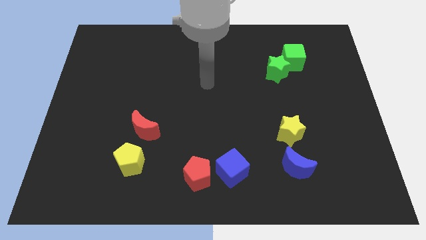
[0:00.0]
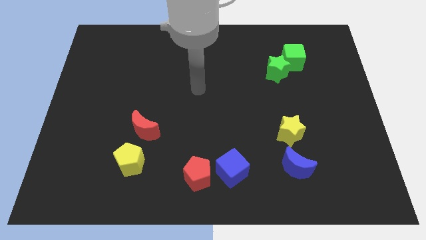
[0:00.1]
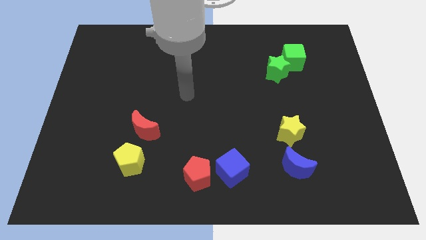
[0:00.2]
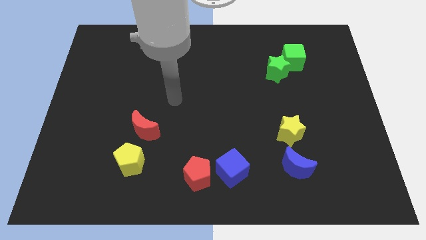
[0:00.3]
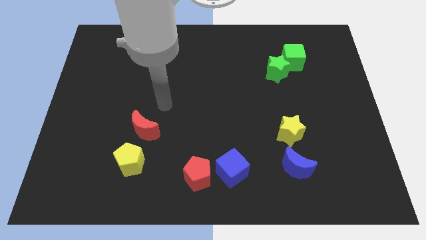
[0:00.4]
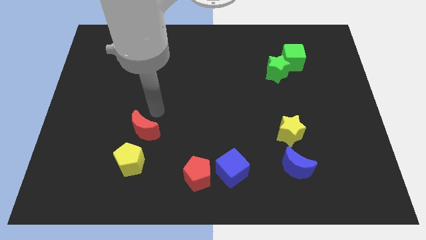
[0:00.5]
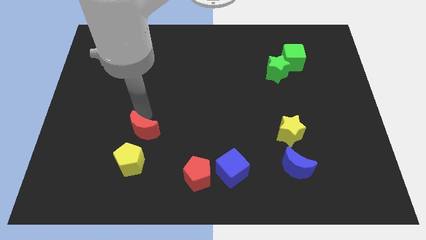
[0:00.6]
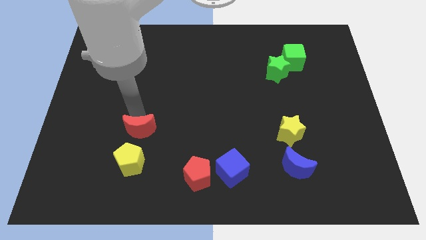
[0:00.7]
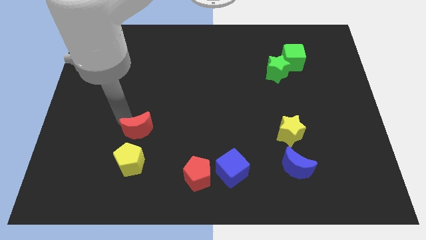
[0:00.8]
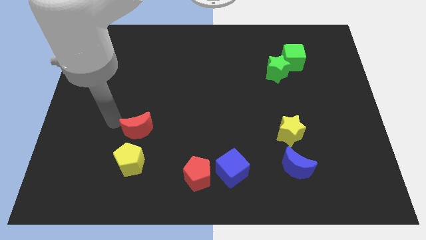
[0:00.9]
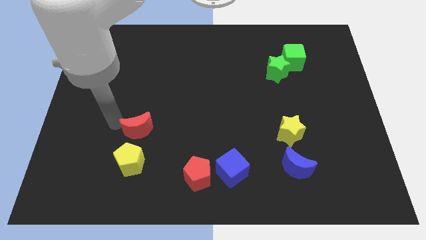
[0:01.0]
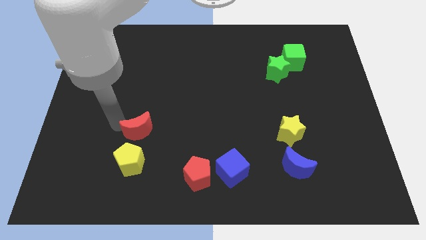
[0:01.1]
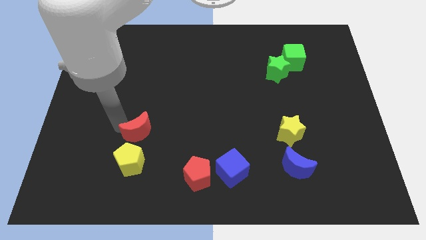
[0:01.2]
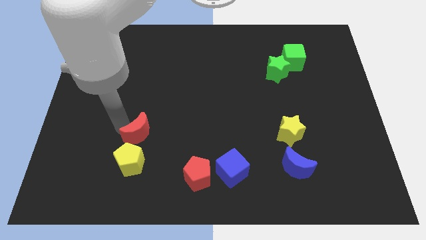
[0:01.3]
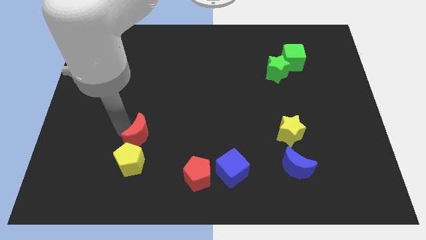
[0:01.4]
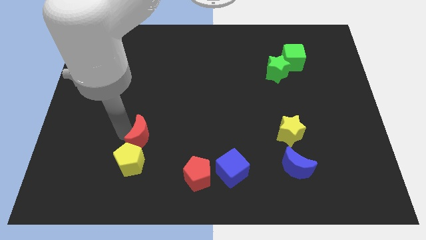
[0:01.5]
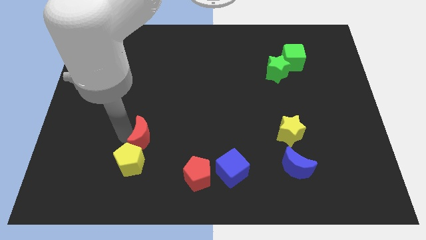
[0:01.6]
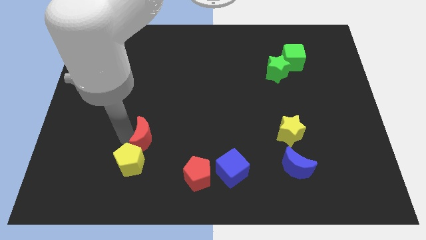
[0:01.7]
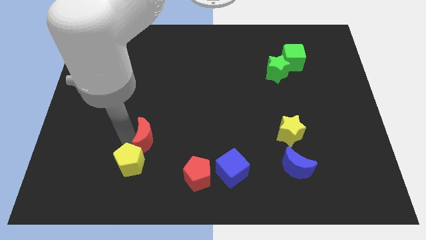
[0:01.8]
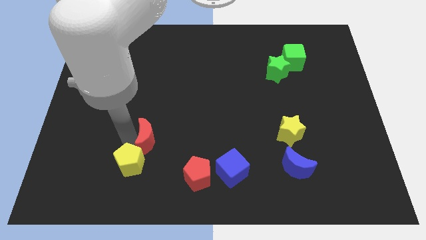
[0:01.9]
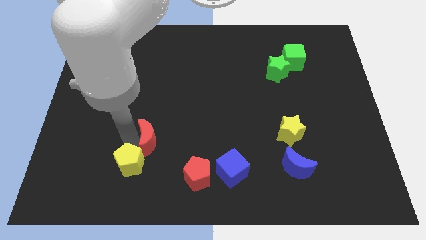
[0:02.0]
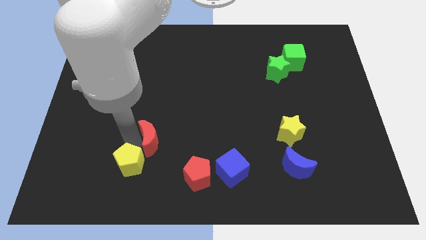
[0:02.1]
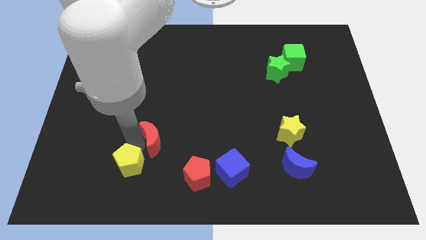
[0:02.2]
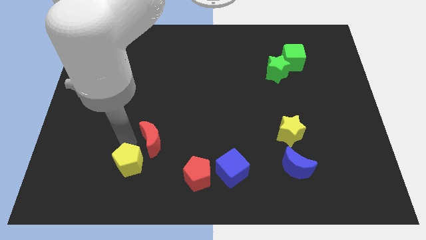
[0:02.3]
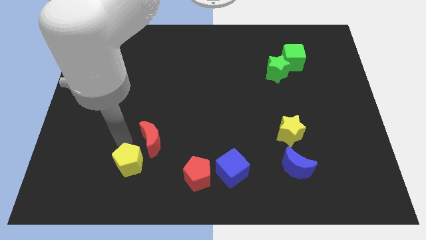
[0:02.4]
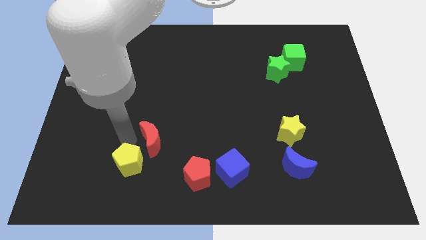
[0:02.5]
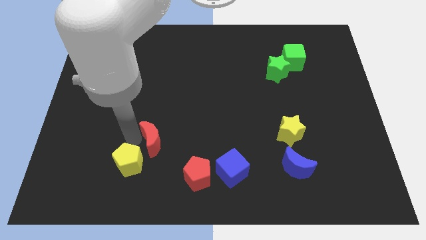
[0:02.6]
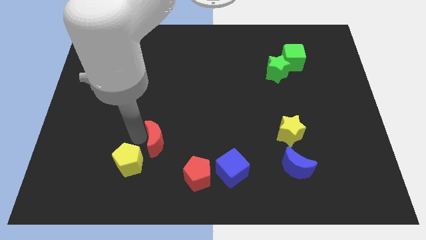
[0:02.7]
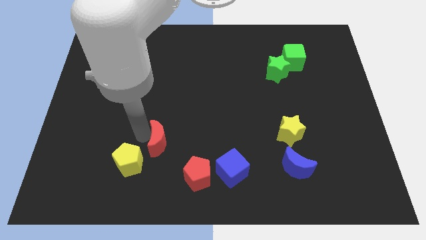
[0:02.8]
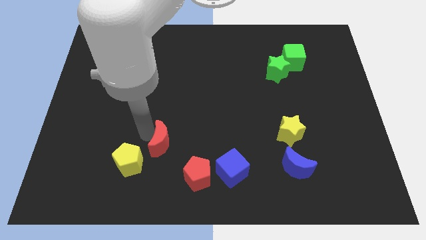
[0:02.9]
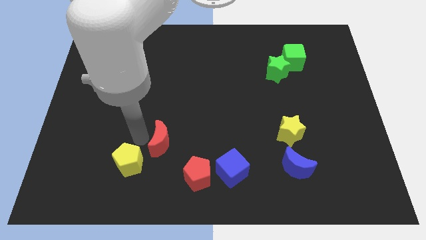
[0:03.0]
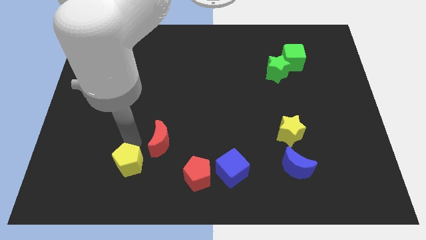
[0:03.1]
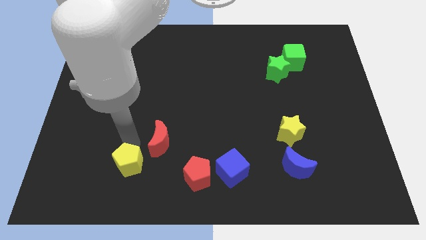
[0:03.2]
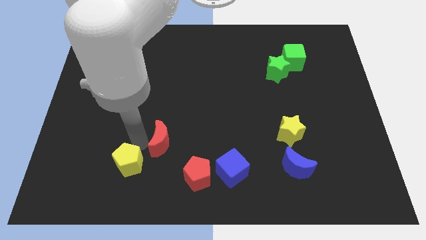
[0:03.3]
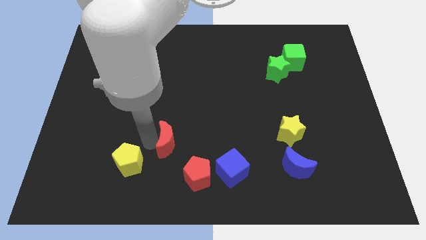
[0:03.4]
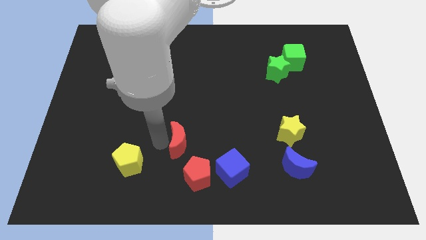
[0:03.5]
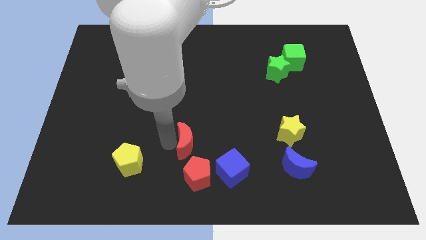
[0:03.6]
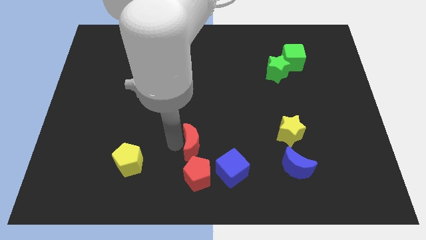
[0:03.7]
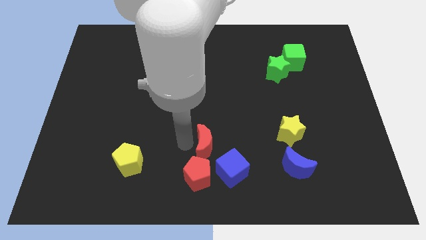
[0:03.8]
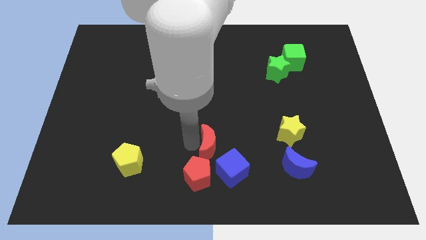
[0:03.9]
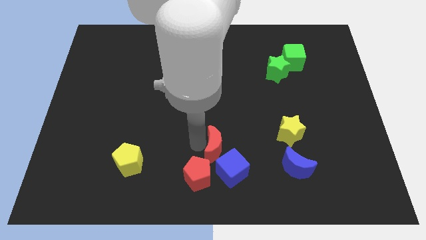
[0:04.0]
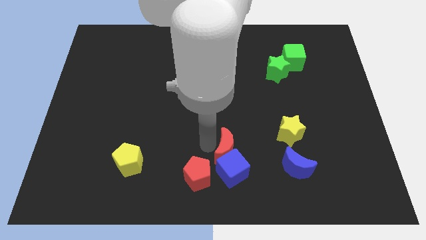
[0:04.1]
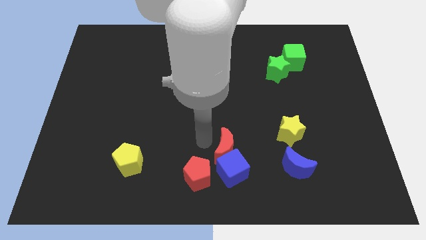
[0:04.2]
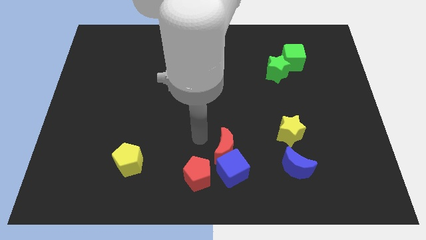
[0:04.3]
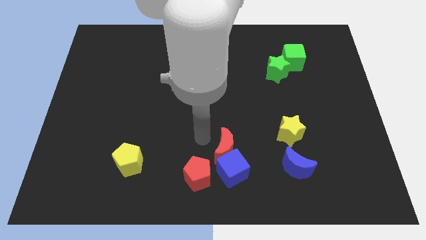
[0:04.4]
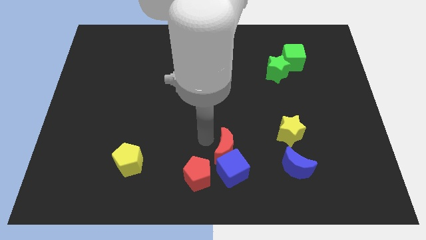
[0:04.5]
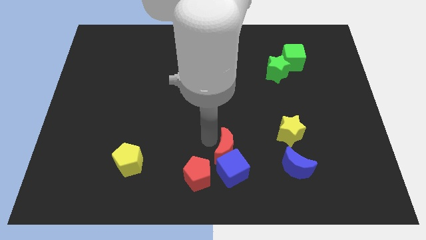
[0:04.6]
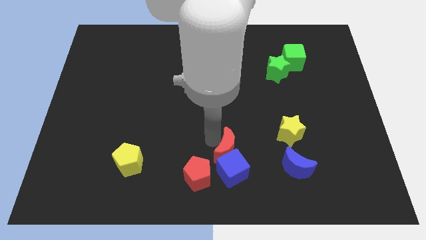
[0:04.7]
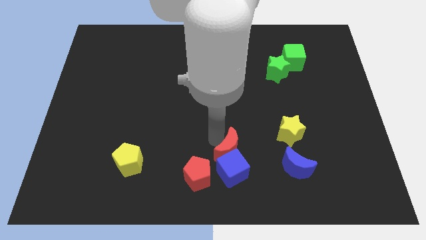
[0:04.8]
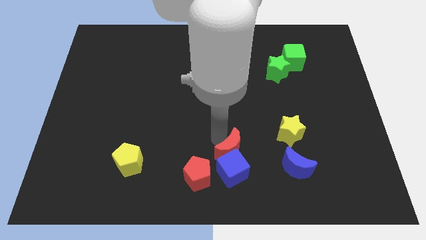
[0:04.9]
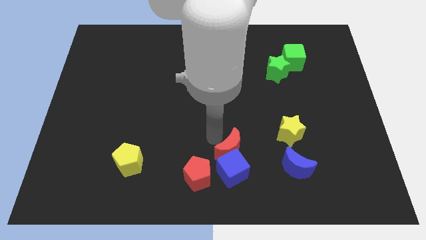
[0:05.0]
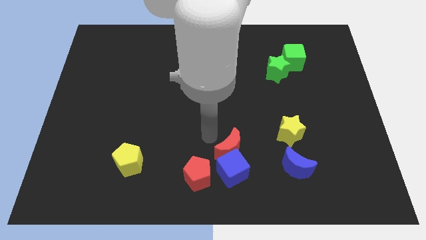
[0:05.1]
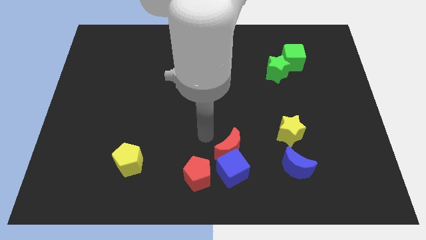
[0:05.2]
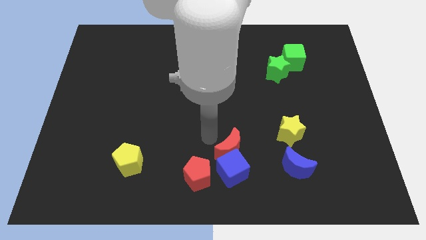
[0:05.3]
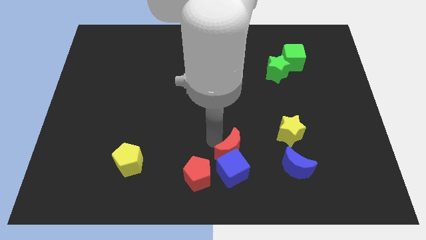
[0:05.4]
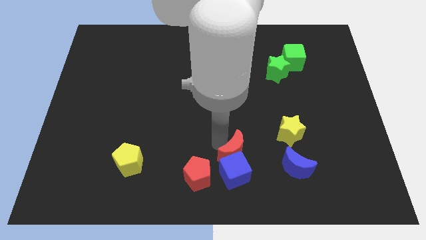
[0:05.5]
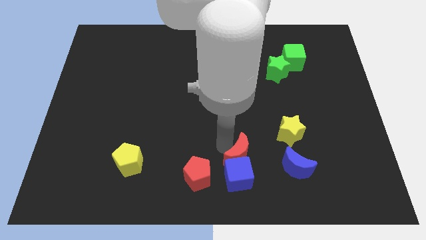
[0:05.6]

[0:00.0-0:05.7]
move the red moon right of the red pentagon

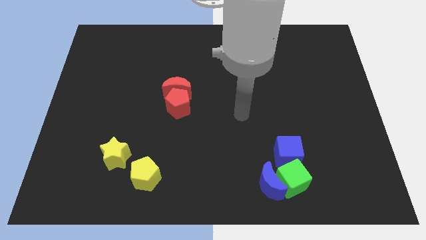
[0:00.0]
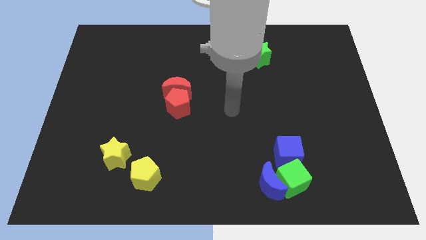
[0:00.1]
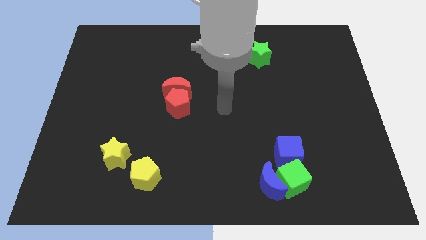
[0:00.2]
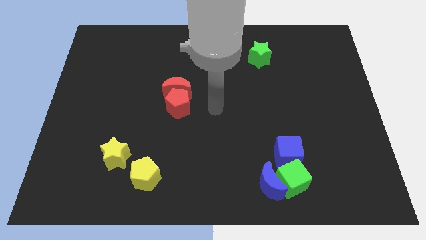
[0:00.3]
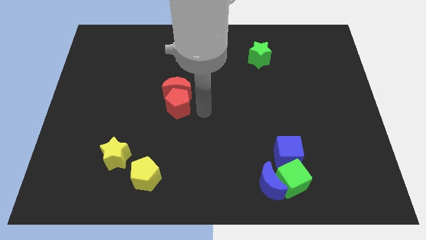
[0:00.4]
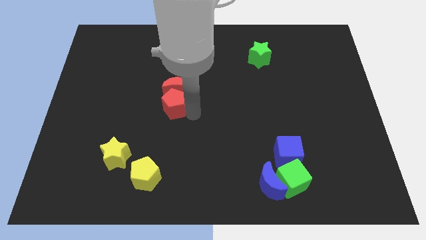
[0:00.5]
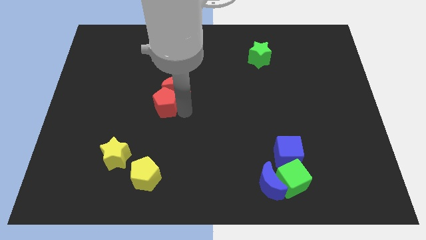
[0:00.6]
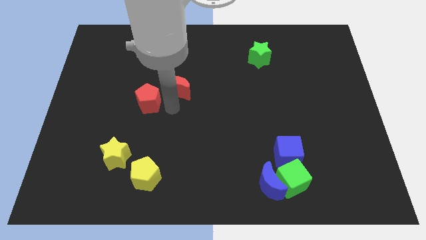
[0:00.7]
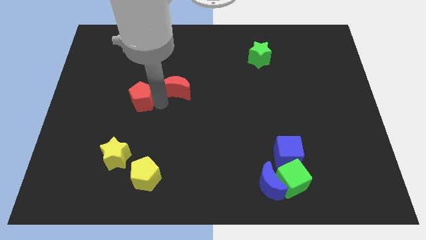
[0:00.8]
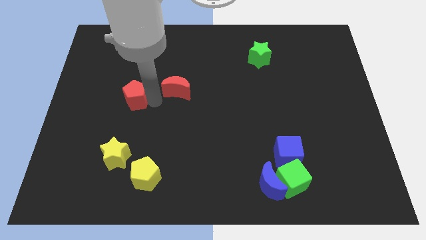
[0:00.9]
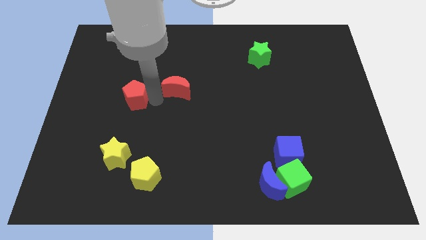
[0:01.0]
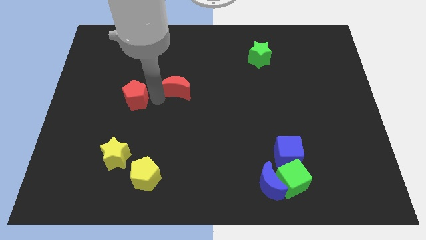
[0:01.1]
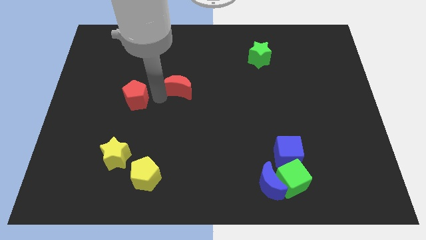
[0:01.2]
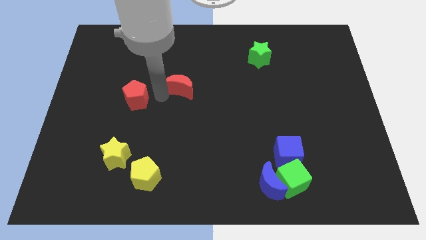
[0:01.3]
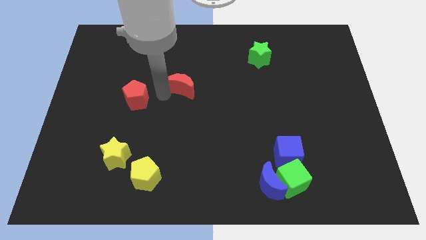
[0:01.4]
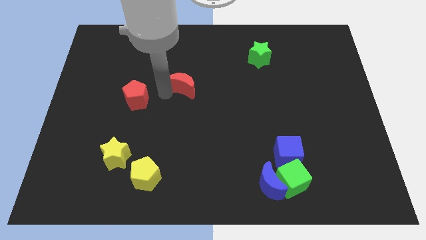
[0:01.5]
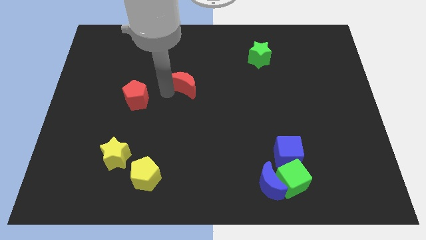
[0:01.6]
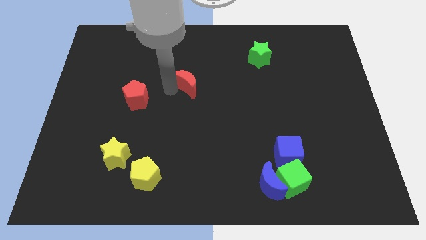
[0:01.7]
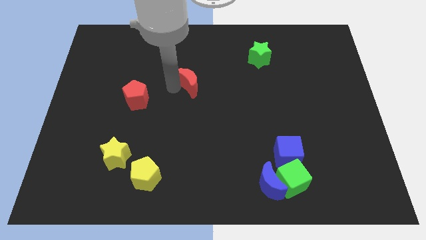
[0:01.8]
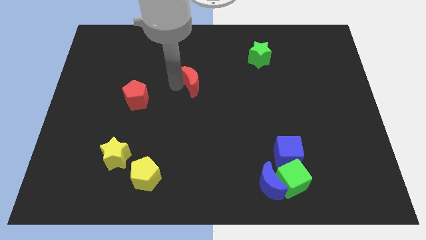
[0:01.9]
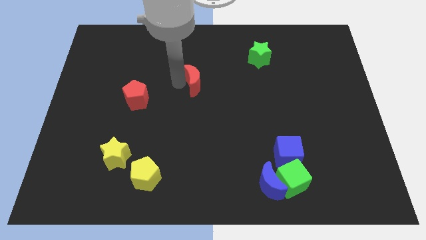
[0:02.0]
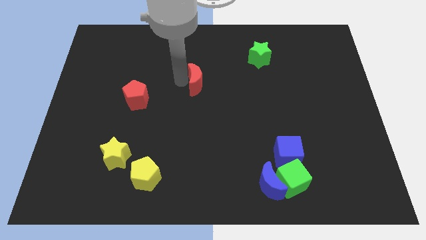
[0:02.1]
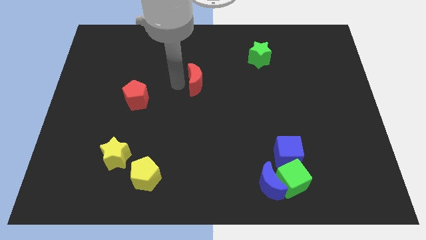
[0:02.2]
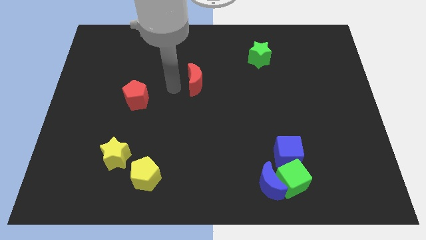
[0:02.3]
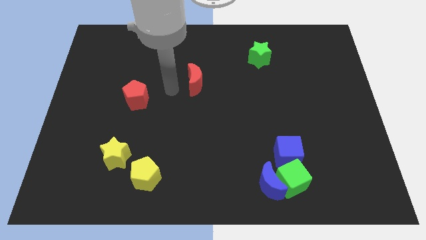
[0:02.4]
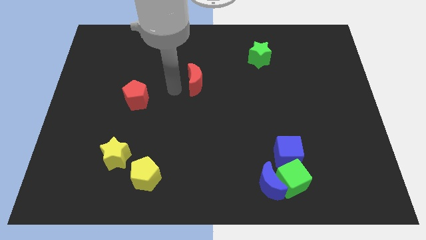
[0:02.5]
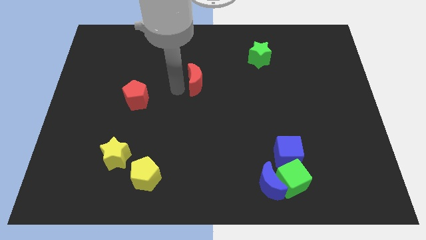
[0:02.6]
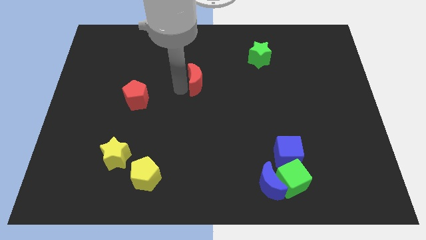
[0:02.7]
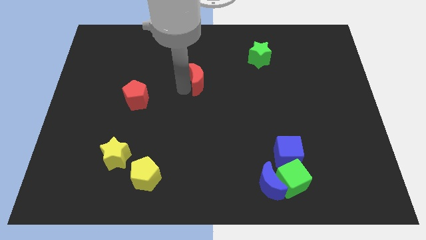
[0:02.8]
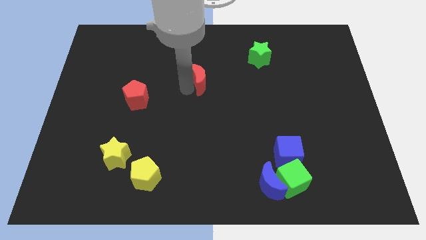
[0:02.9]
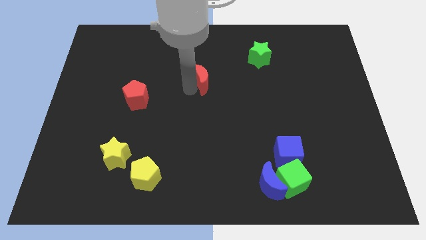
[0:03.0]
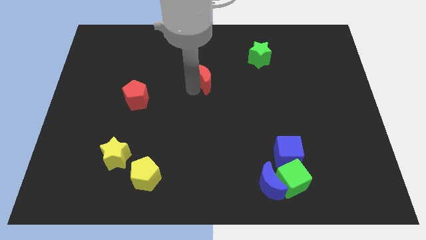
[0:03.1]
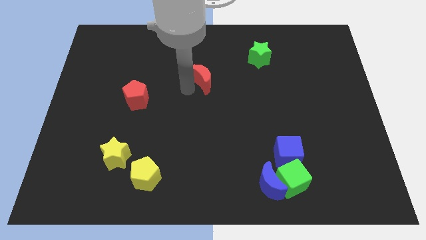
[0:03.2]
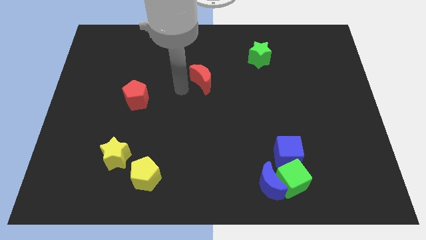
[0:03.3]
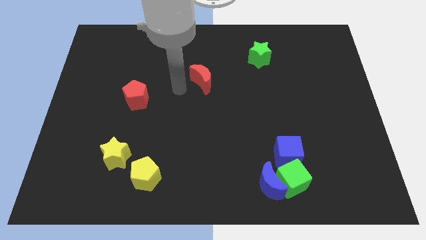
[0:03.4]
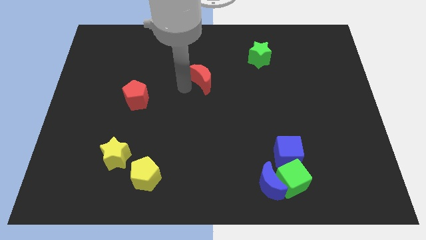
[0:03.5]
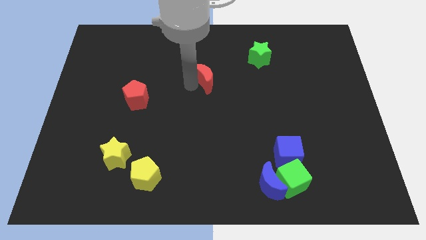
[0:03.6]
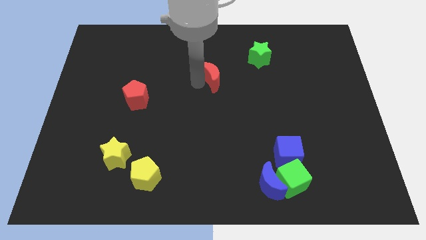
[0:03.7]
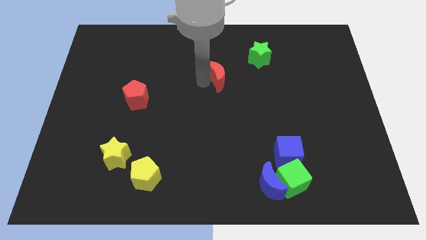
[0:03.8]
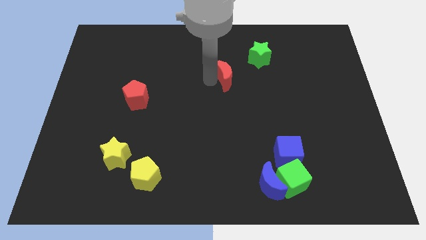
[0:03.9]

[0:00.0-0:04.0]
put the red moon to the bottom left of the green star
